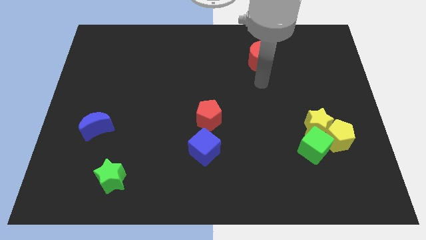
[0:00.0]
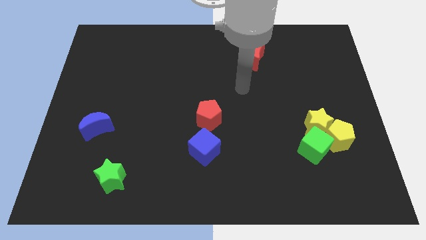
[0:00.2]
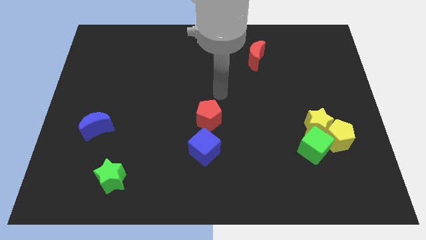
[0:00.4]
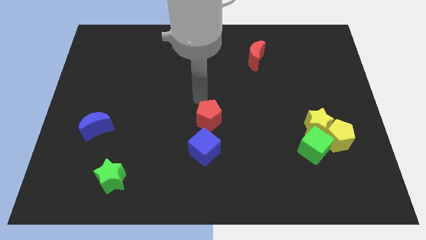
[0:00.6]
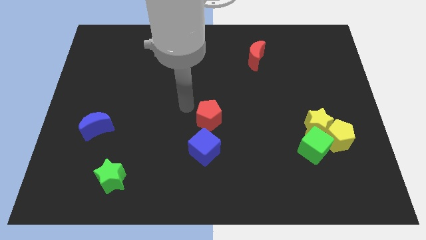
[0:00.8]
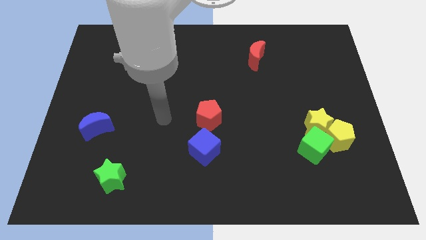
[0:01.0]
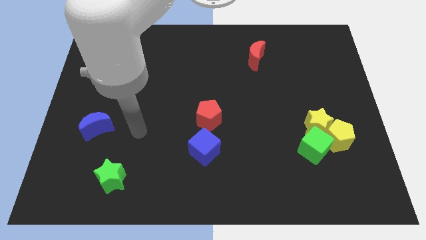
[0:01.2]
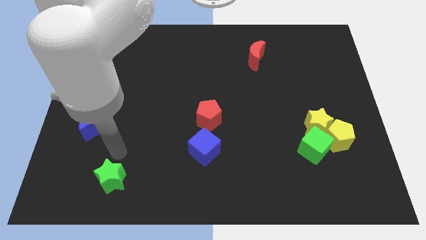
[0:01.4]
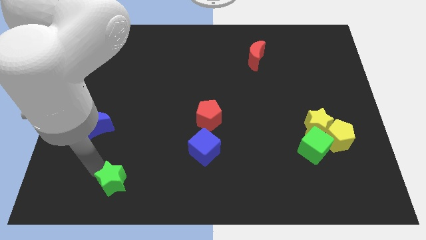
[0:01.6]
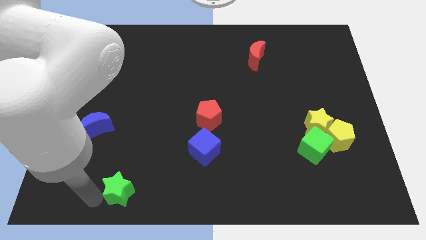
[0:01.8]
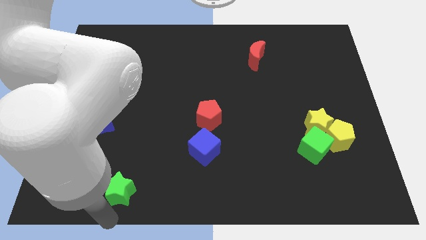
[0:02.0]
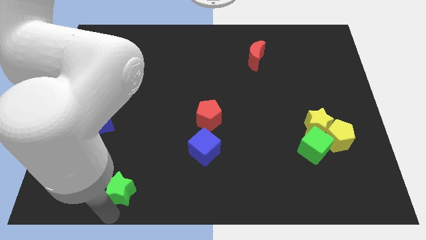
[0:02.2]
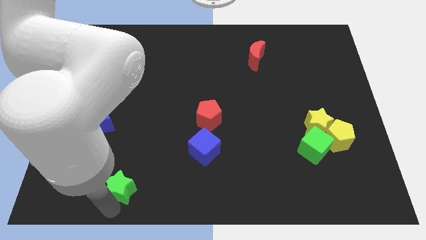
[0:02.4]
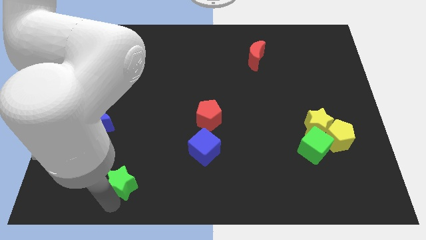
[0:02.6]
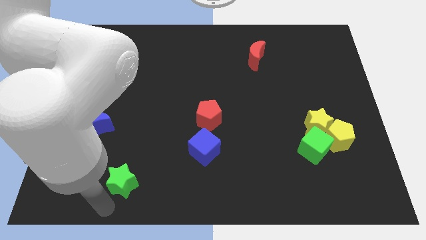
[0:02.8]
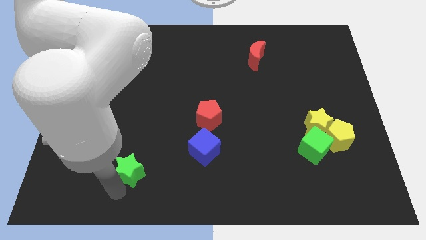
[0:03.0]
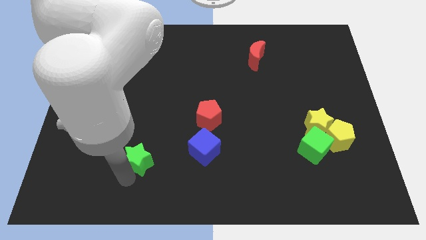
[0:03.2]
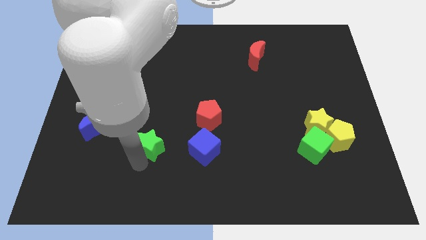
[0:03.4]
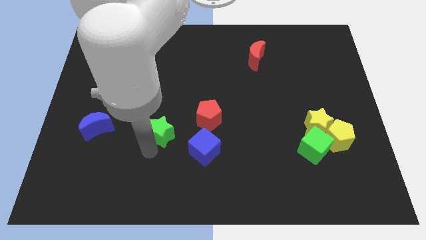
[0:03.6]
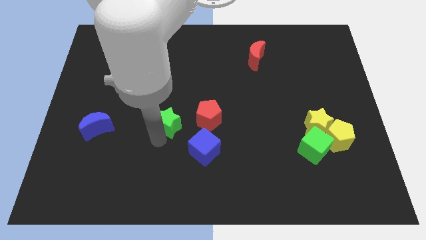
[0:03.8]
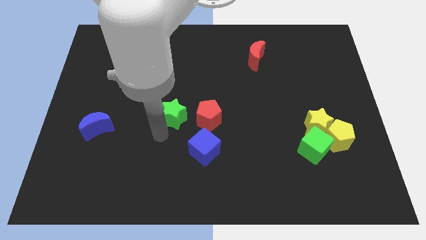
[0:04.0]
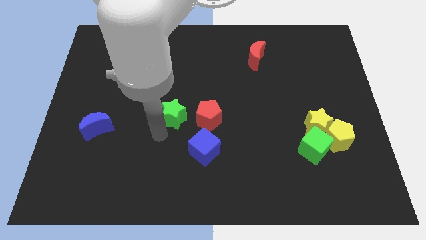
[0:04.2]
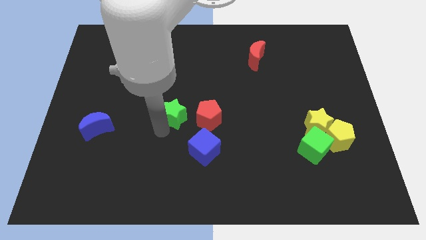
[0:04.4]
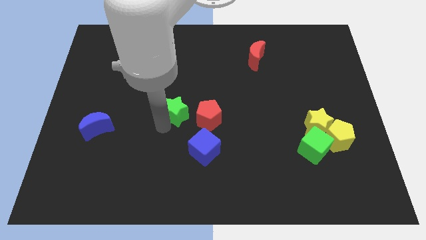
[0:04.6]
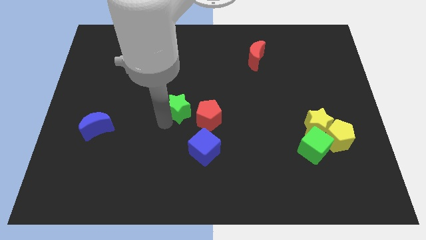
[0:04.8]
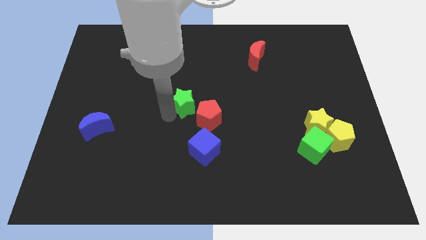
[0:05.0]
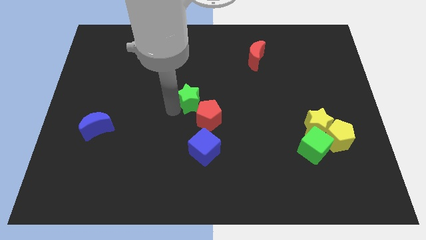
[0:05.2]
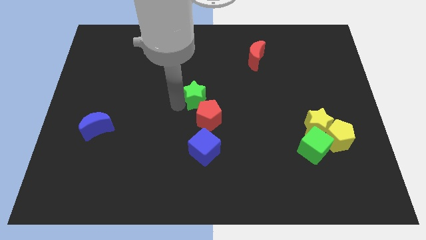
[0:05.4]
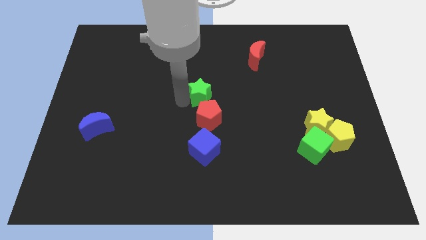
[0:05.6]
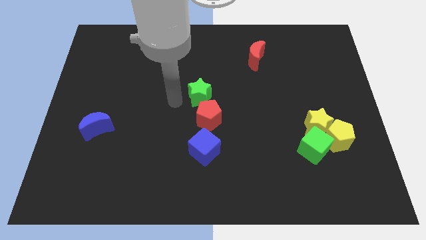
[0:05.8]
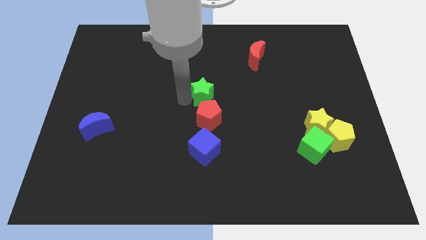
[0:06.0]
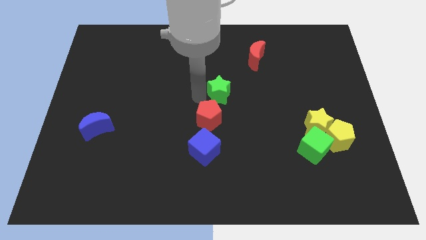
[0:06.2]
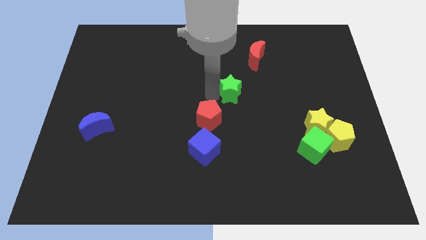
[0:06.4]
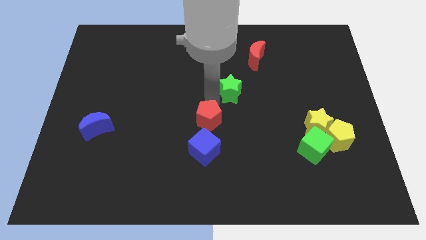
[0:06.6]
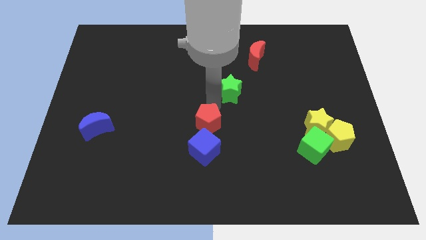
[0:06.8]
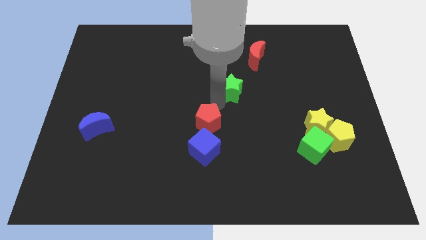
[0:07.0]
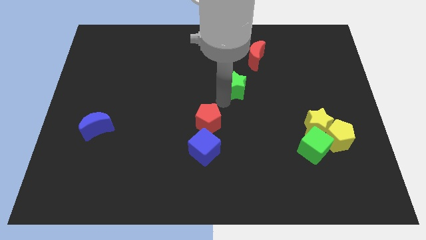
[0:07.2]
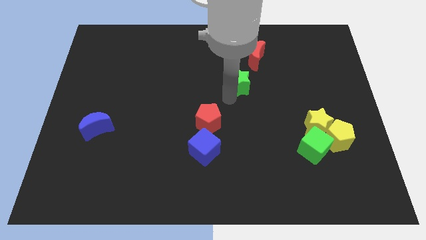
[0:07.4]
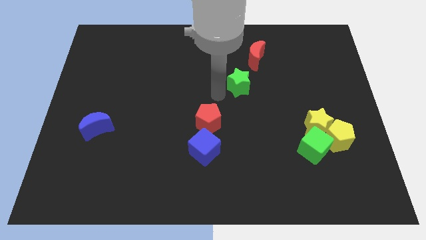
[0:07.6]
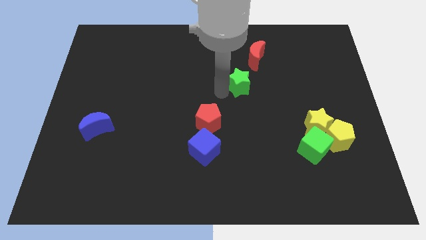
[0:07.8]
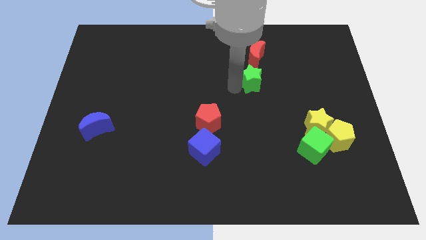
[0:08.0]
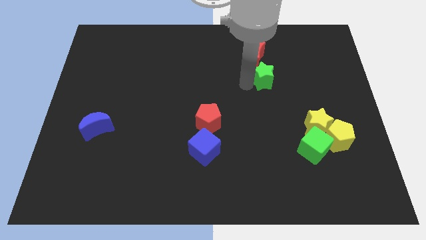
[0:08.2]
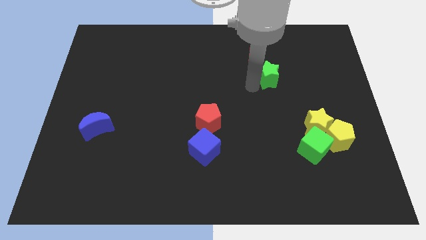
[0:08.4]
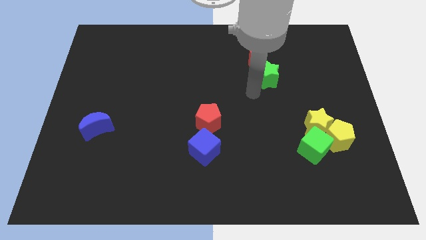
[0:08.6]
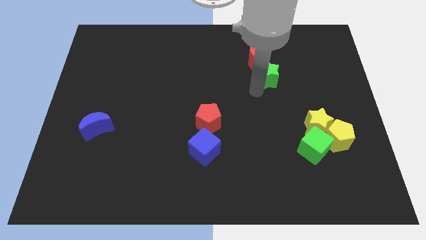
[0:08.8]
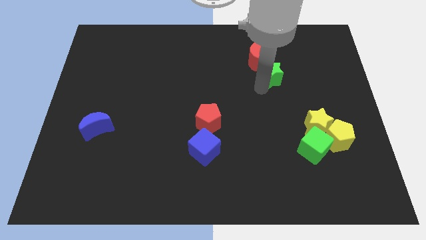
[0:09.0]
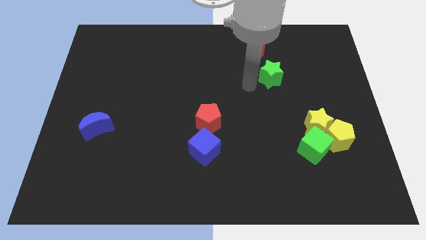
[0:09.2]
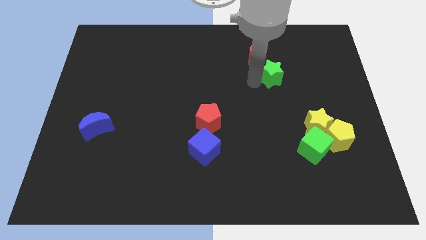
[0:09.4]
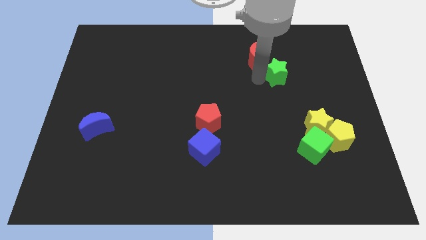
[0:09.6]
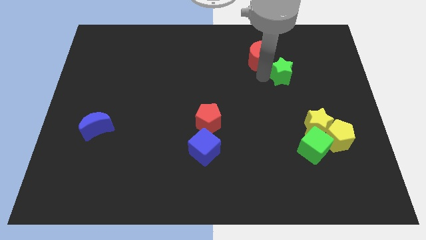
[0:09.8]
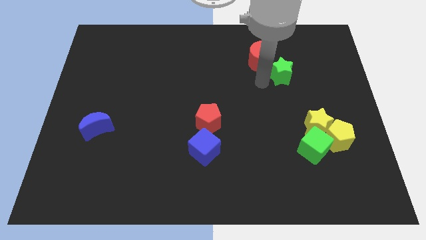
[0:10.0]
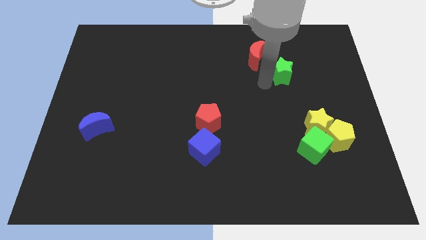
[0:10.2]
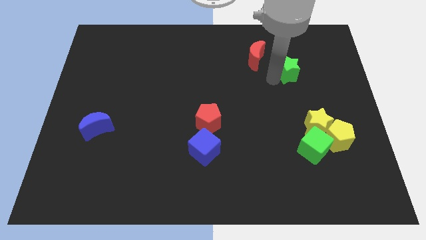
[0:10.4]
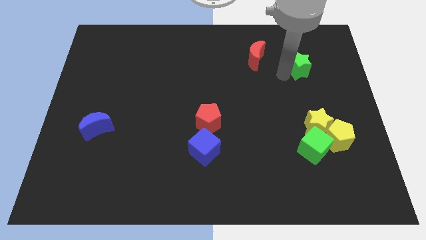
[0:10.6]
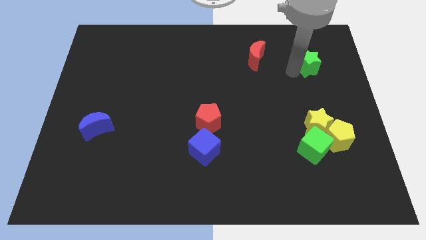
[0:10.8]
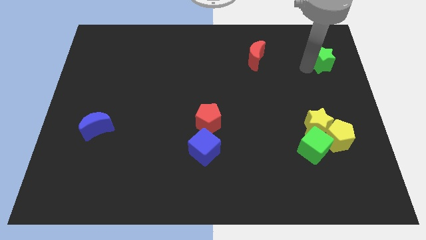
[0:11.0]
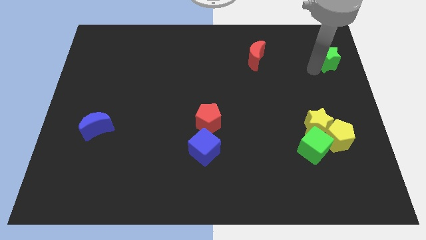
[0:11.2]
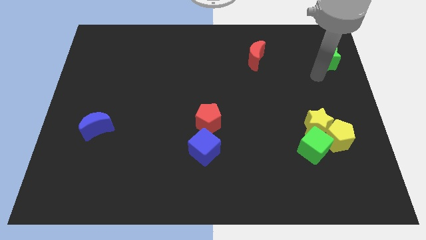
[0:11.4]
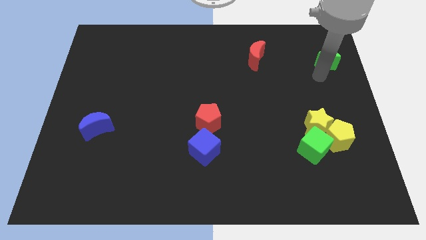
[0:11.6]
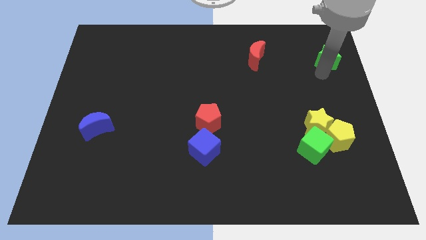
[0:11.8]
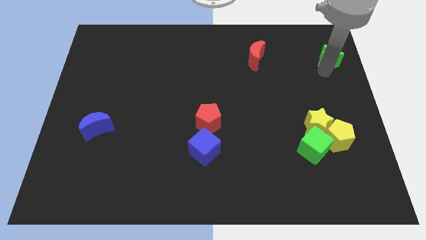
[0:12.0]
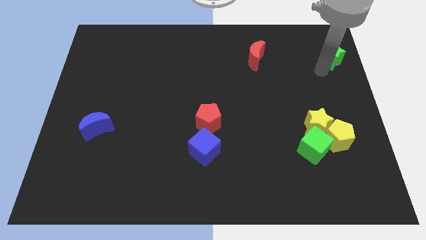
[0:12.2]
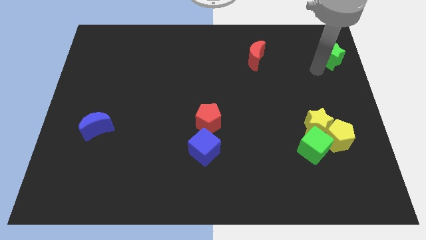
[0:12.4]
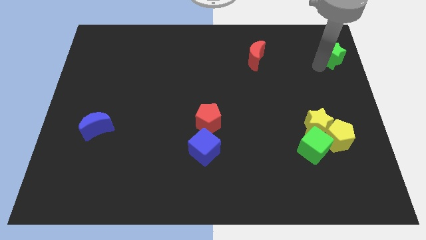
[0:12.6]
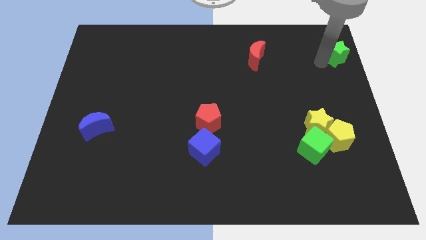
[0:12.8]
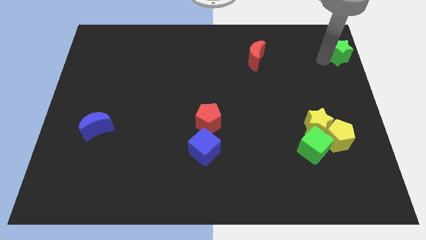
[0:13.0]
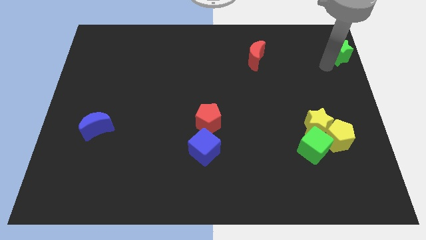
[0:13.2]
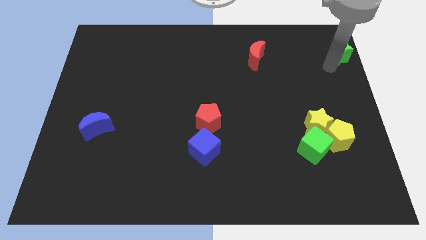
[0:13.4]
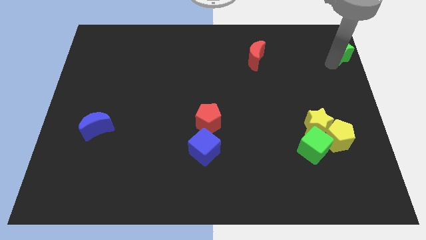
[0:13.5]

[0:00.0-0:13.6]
move the green star to the top right

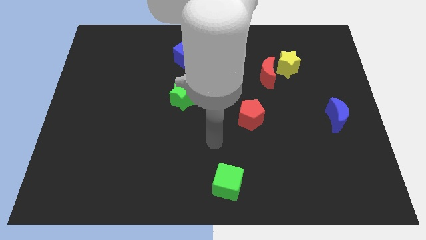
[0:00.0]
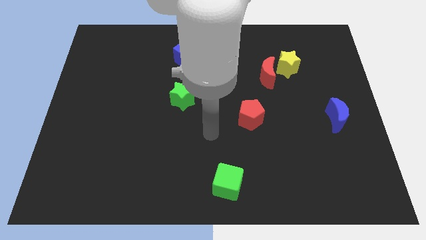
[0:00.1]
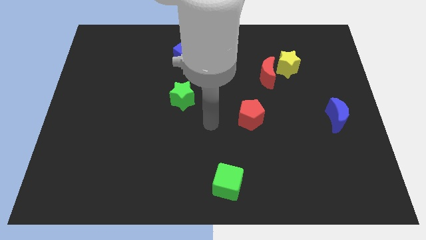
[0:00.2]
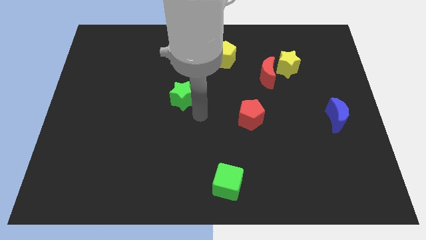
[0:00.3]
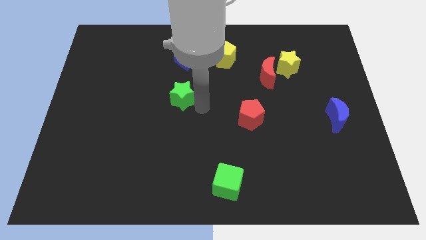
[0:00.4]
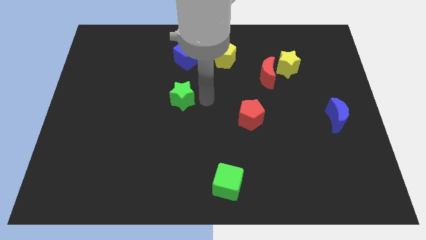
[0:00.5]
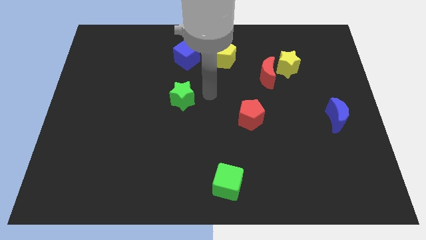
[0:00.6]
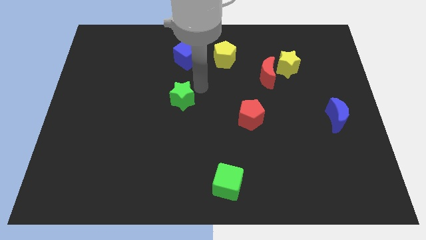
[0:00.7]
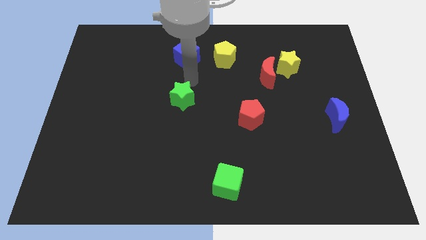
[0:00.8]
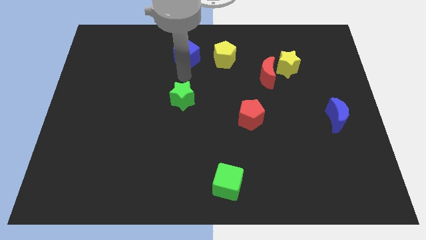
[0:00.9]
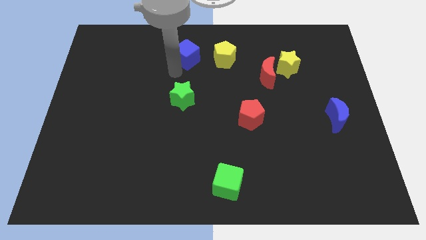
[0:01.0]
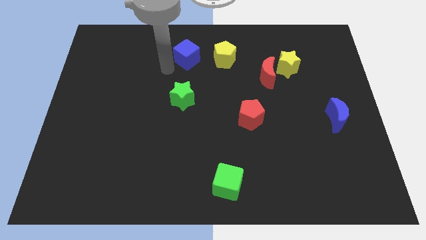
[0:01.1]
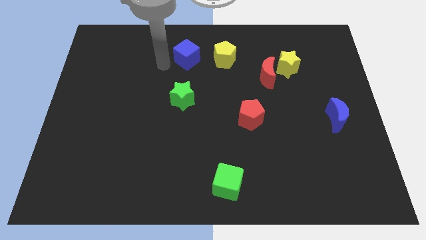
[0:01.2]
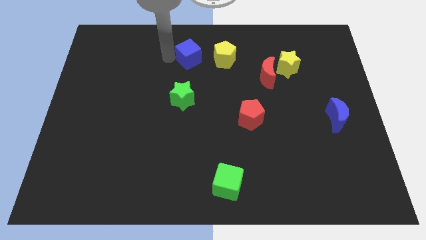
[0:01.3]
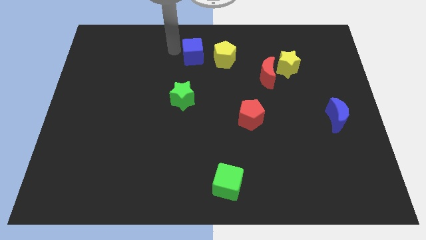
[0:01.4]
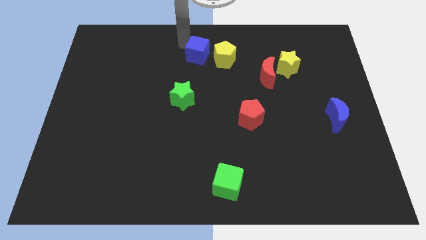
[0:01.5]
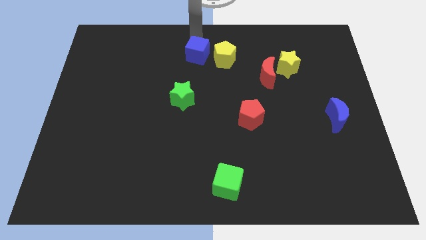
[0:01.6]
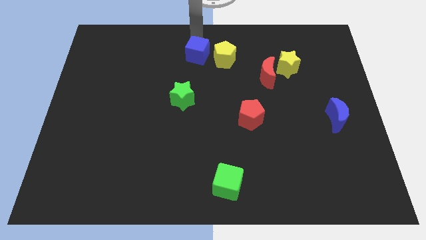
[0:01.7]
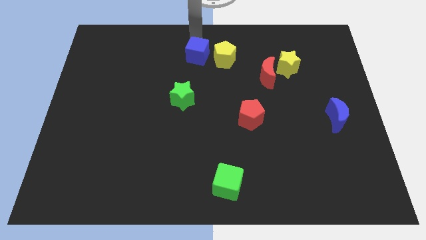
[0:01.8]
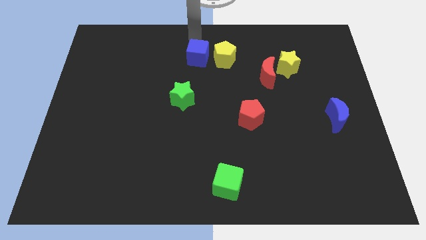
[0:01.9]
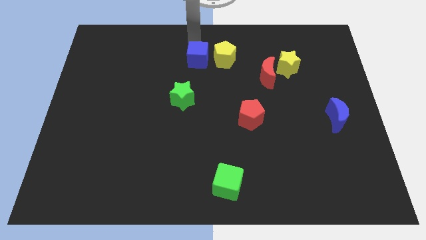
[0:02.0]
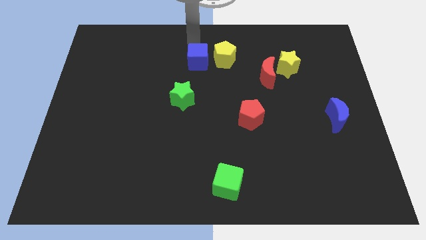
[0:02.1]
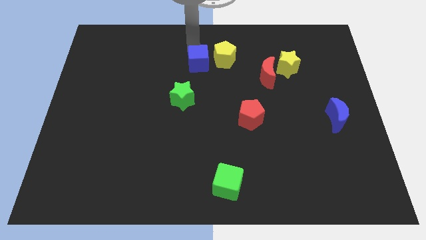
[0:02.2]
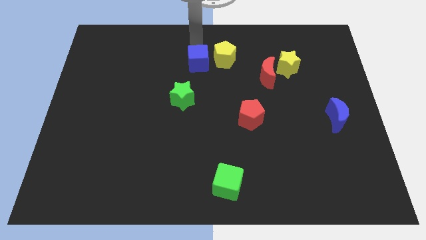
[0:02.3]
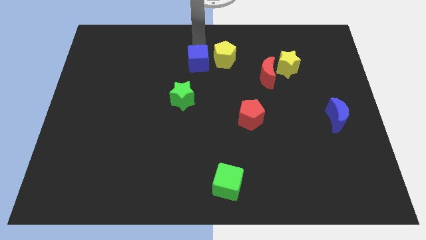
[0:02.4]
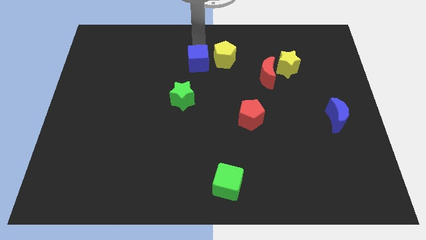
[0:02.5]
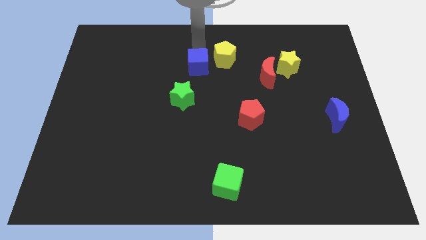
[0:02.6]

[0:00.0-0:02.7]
move the blue cube to the middle
